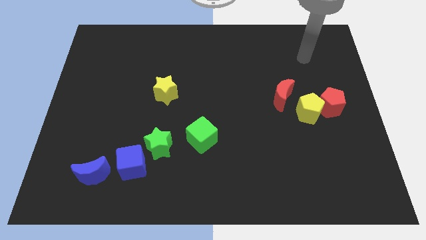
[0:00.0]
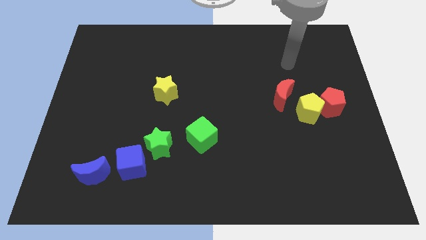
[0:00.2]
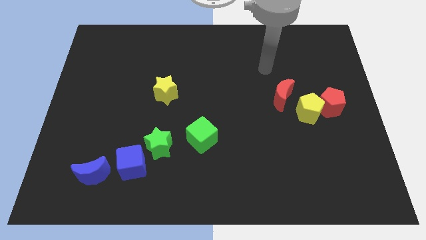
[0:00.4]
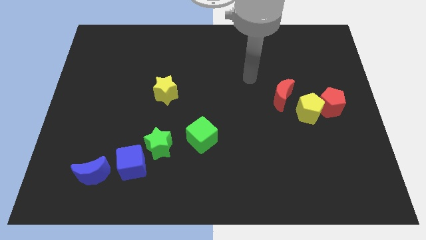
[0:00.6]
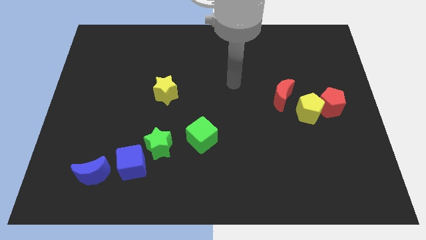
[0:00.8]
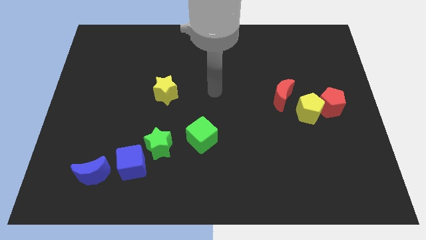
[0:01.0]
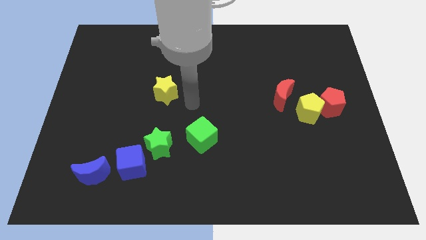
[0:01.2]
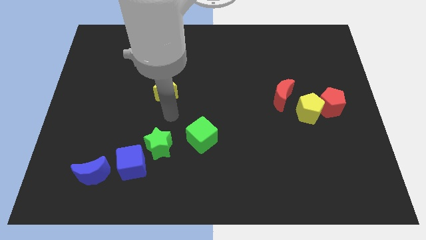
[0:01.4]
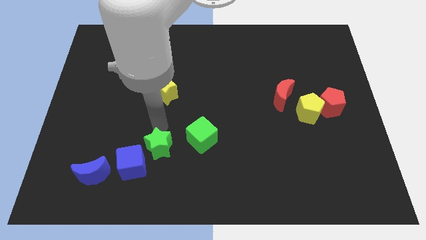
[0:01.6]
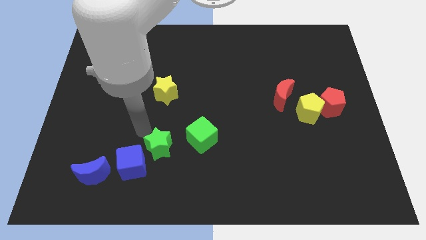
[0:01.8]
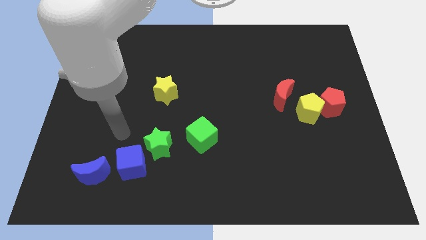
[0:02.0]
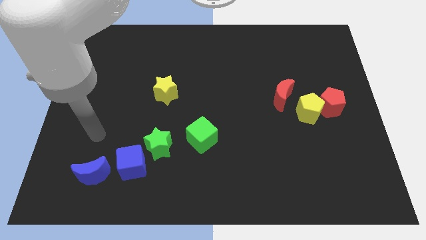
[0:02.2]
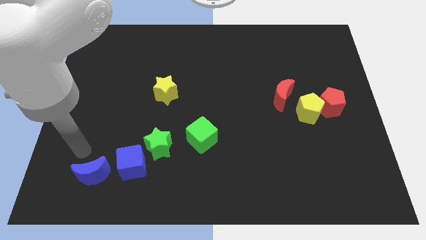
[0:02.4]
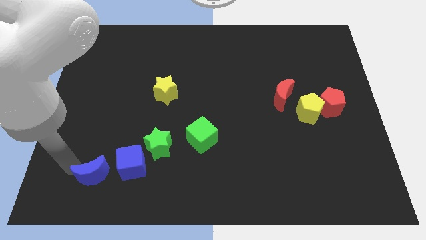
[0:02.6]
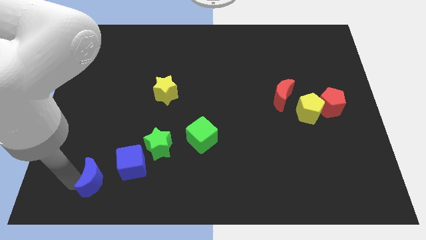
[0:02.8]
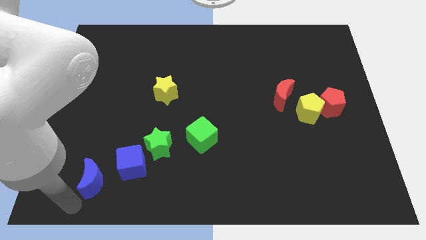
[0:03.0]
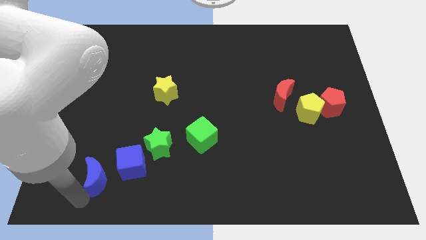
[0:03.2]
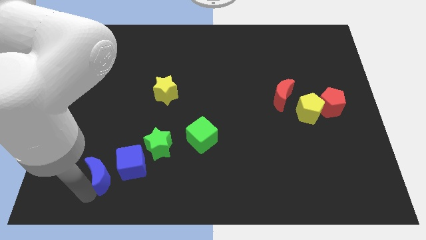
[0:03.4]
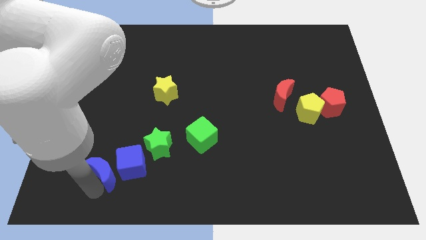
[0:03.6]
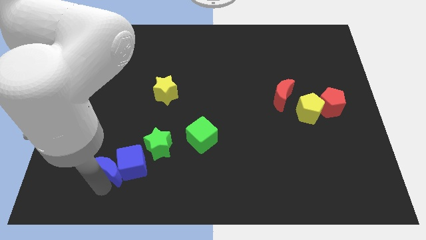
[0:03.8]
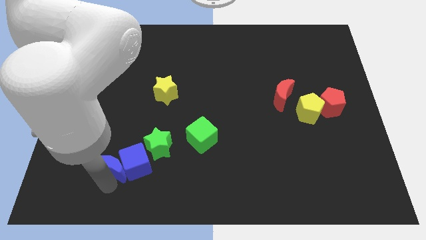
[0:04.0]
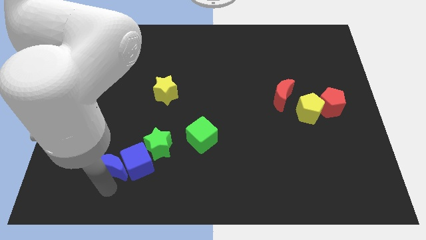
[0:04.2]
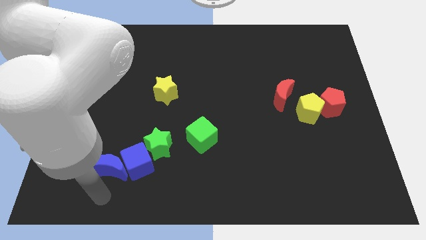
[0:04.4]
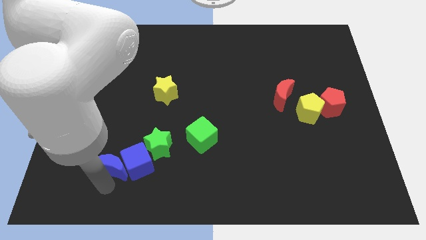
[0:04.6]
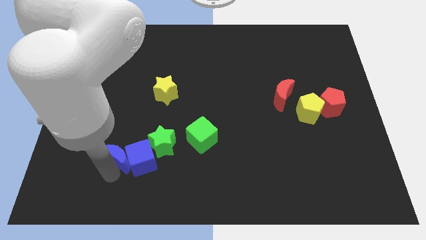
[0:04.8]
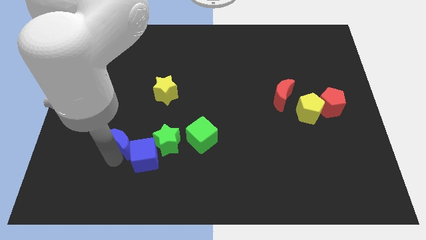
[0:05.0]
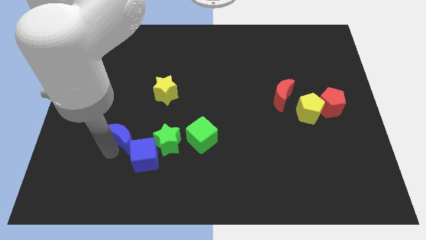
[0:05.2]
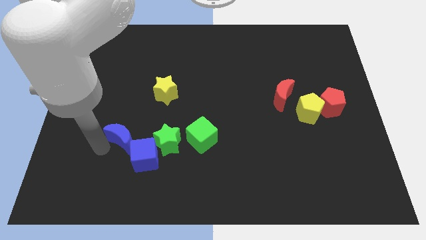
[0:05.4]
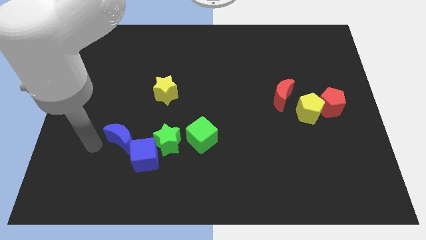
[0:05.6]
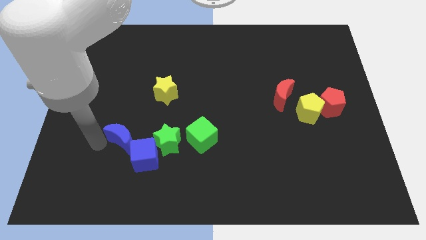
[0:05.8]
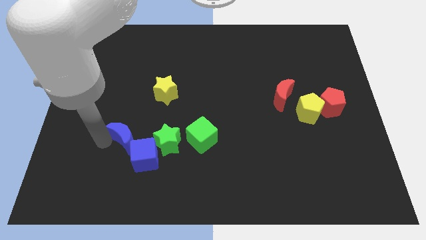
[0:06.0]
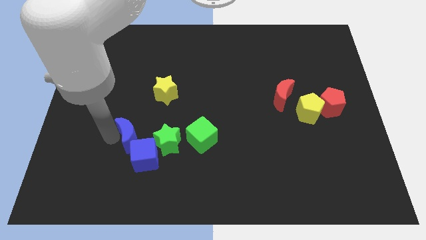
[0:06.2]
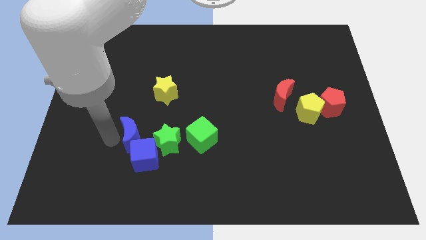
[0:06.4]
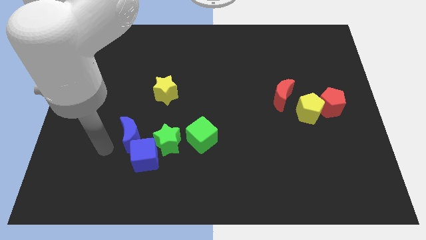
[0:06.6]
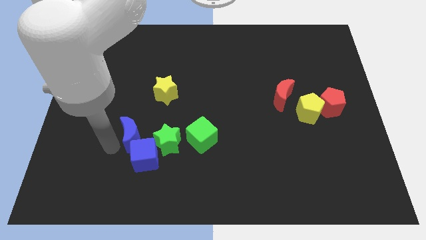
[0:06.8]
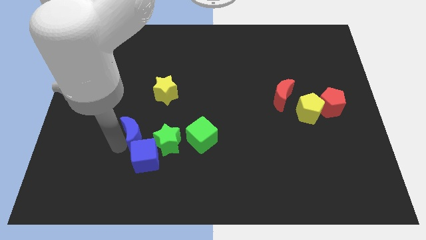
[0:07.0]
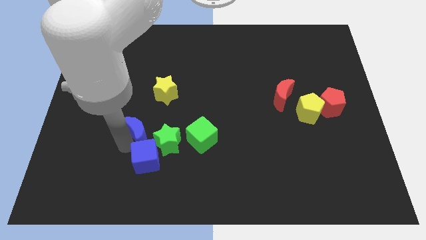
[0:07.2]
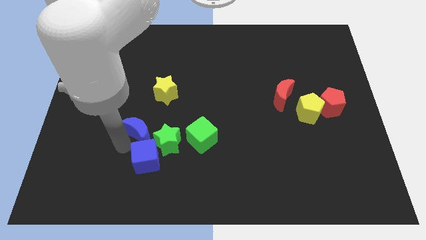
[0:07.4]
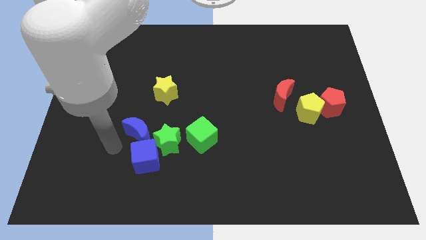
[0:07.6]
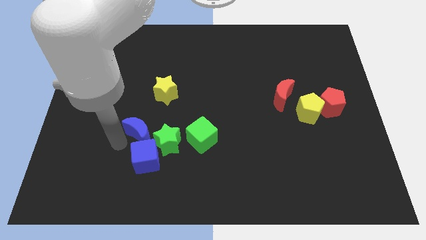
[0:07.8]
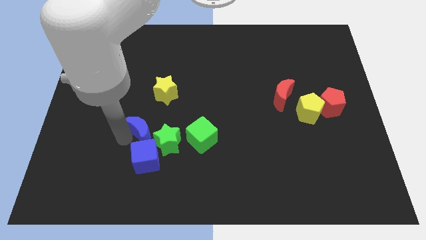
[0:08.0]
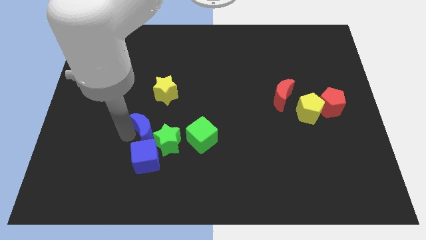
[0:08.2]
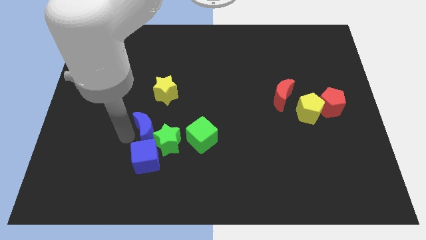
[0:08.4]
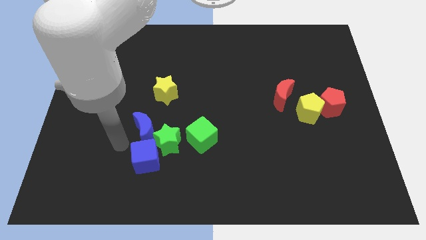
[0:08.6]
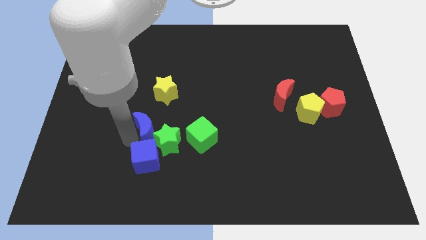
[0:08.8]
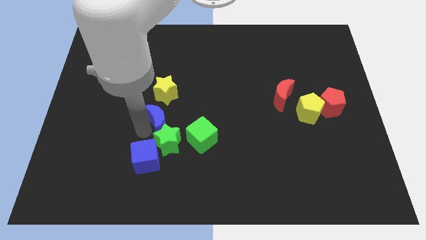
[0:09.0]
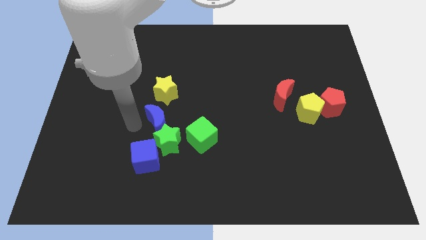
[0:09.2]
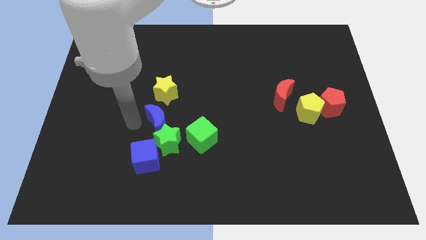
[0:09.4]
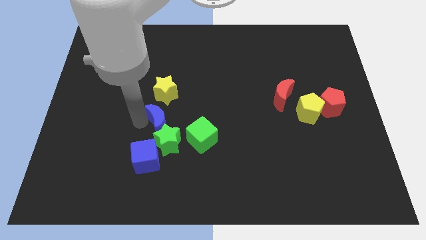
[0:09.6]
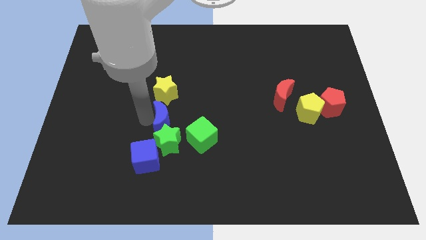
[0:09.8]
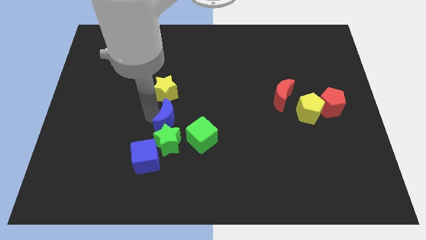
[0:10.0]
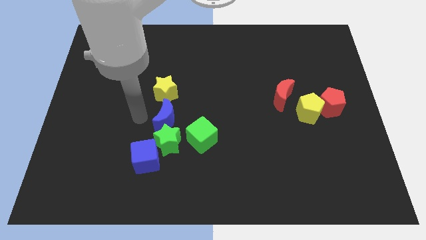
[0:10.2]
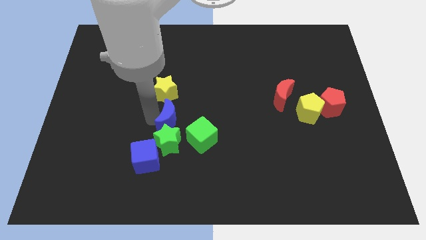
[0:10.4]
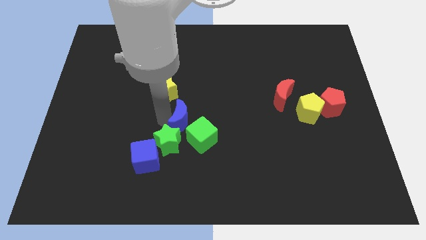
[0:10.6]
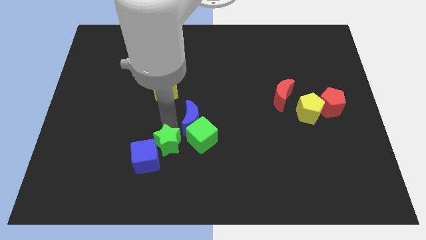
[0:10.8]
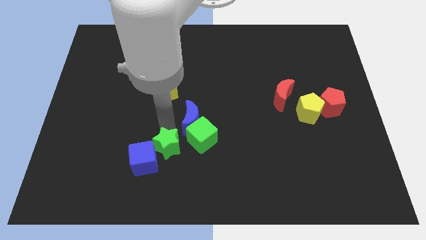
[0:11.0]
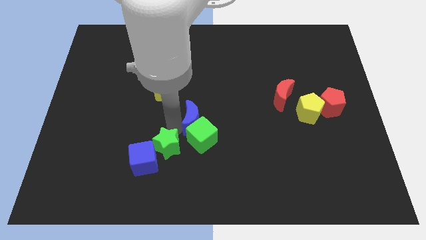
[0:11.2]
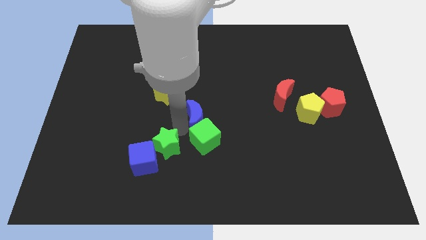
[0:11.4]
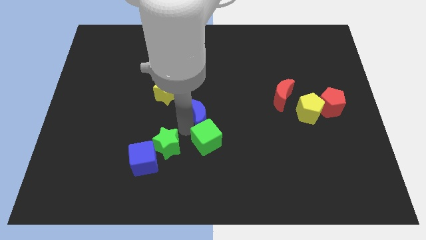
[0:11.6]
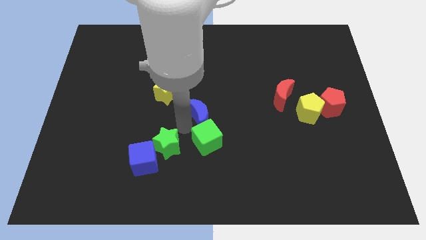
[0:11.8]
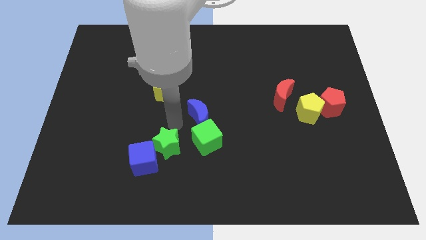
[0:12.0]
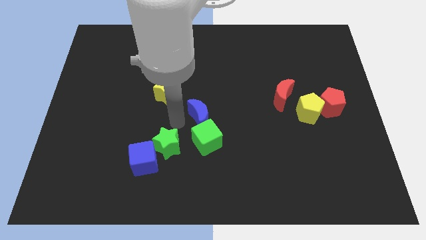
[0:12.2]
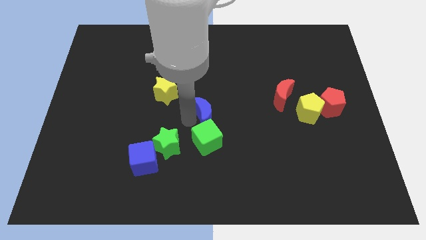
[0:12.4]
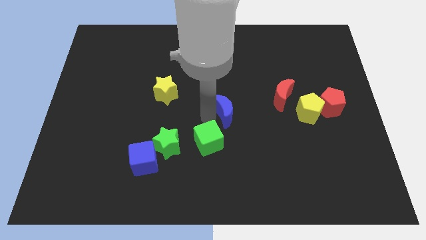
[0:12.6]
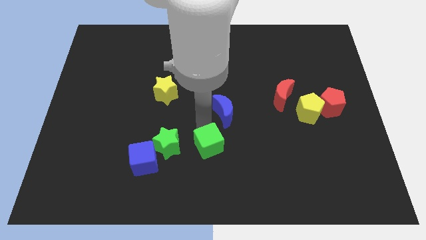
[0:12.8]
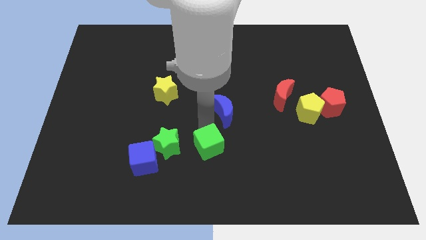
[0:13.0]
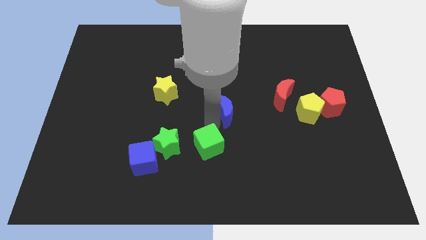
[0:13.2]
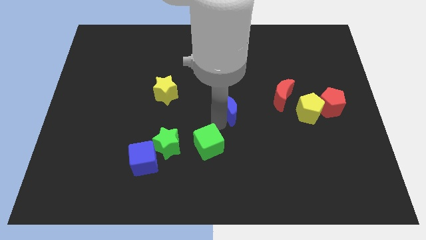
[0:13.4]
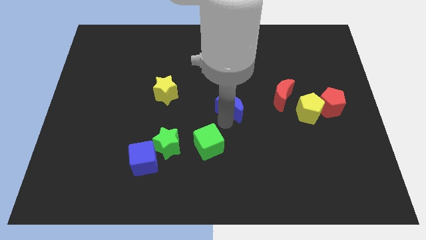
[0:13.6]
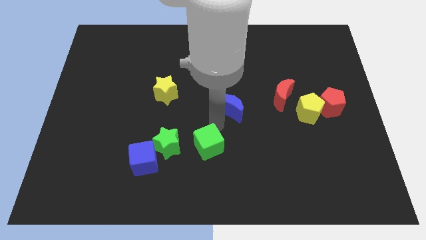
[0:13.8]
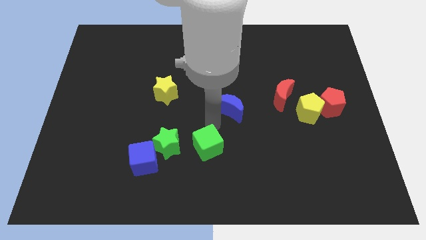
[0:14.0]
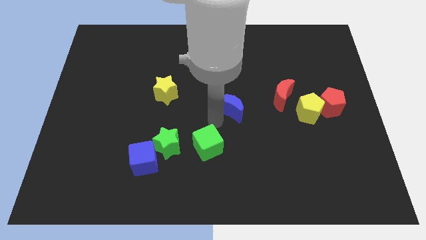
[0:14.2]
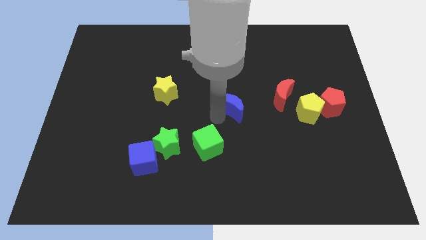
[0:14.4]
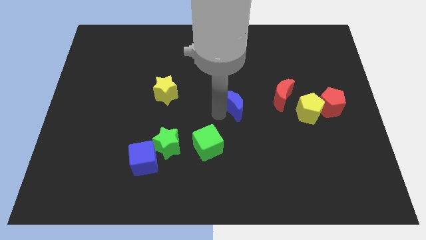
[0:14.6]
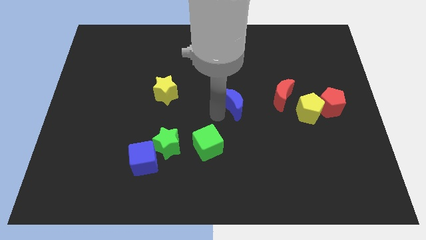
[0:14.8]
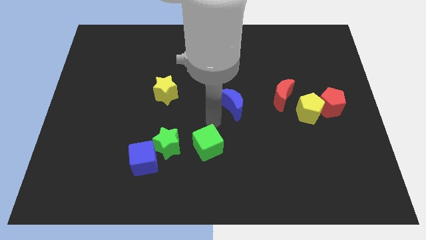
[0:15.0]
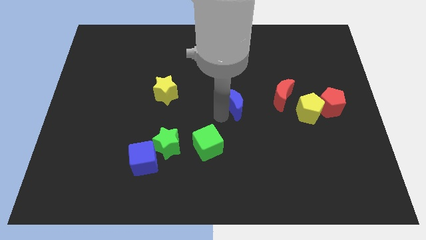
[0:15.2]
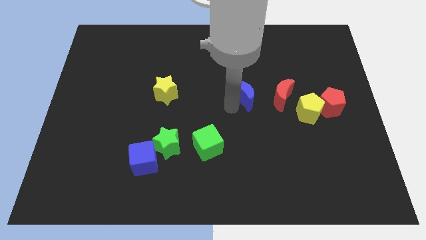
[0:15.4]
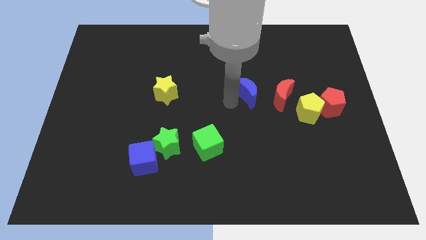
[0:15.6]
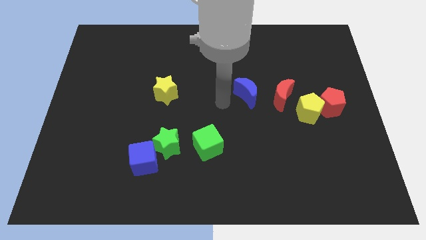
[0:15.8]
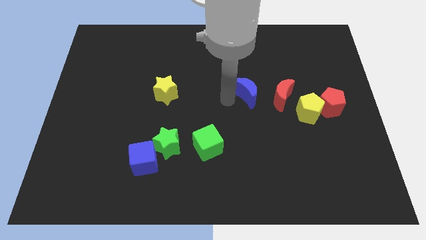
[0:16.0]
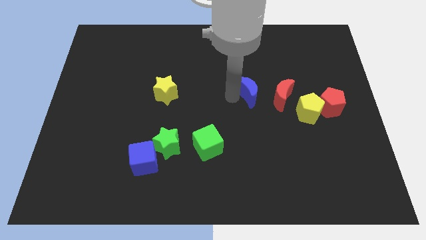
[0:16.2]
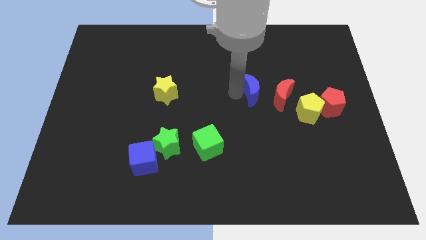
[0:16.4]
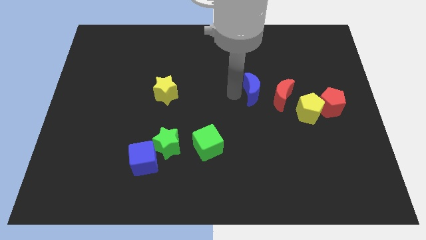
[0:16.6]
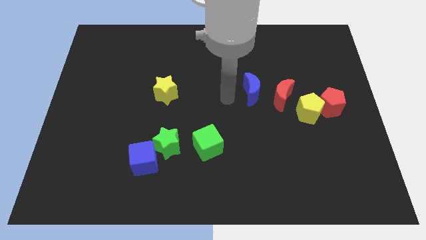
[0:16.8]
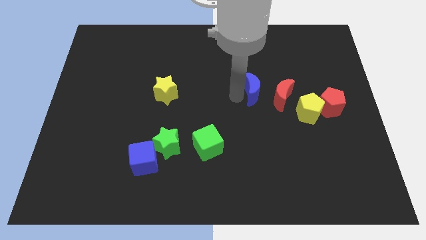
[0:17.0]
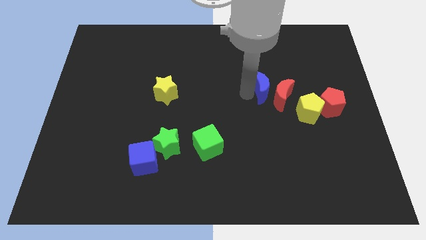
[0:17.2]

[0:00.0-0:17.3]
put the blue moon to the top left side of the yellow pentagon
